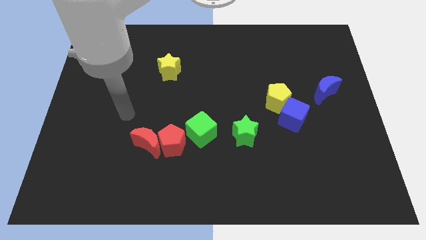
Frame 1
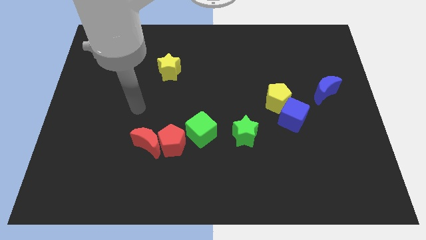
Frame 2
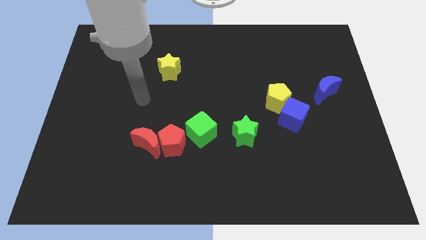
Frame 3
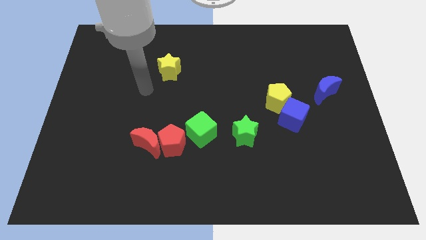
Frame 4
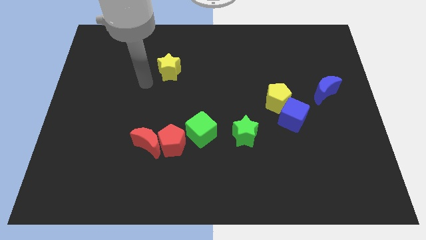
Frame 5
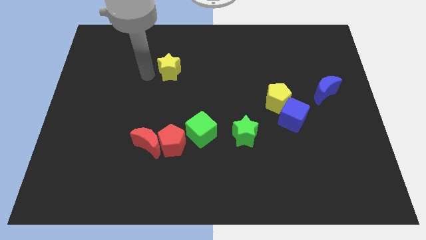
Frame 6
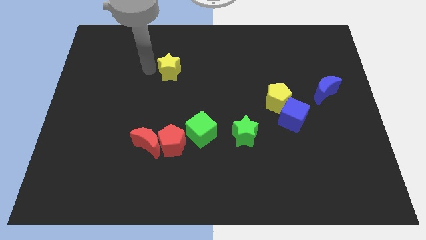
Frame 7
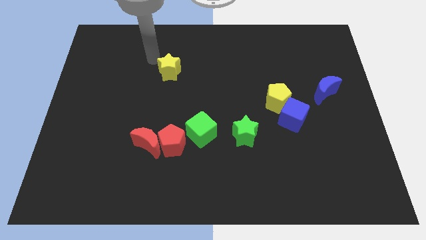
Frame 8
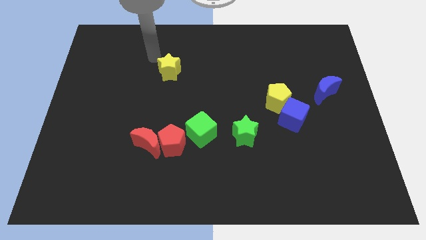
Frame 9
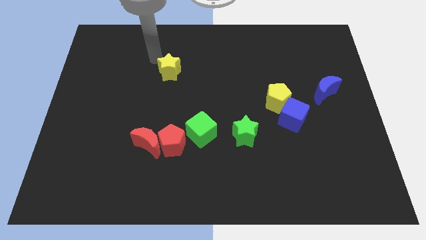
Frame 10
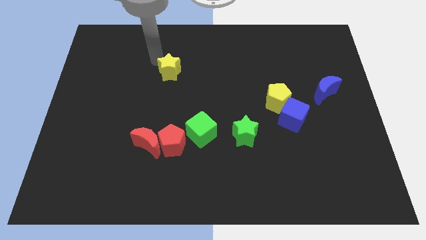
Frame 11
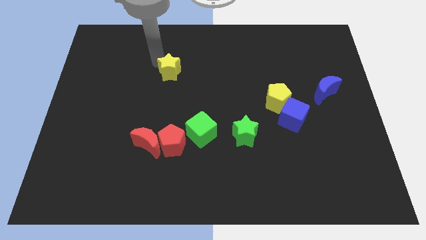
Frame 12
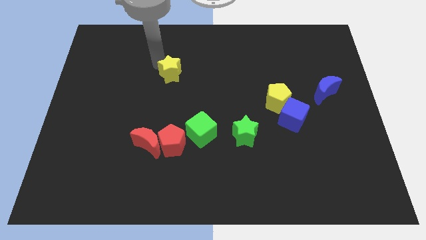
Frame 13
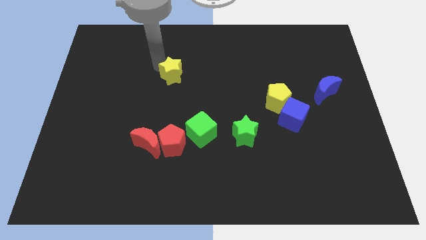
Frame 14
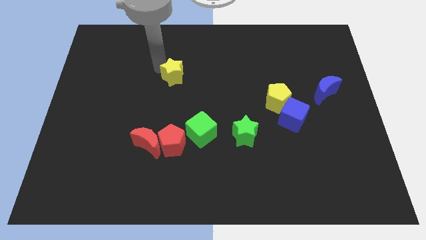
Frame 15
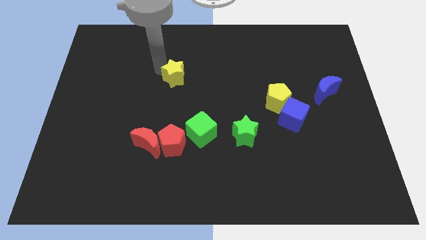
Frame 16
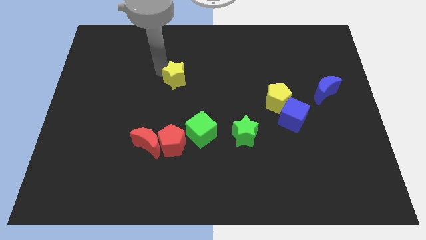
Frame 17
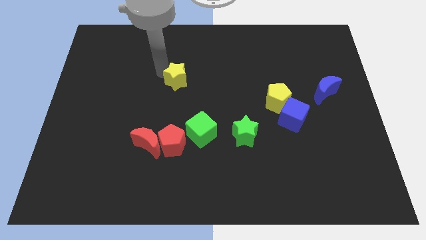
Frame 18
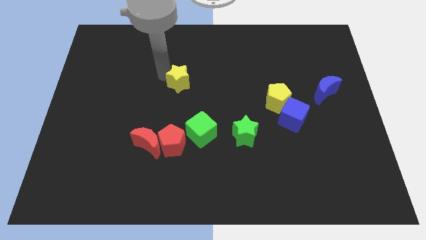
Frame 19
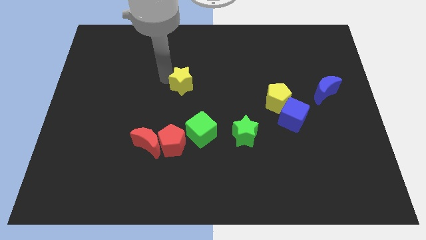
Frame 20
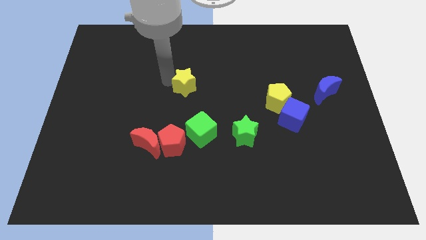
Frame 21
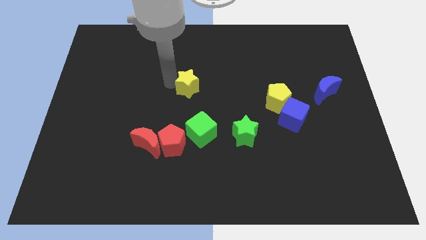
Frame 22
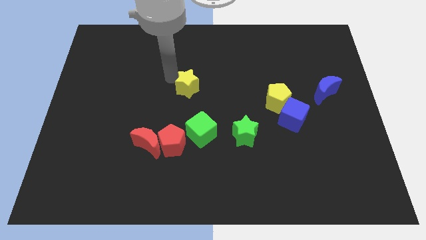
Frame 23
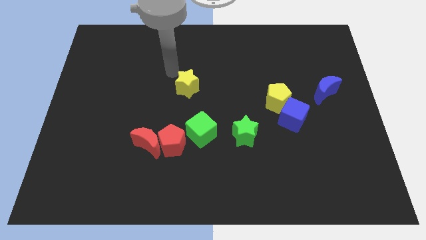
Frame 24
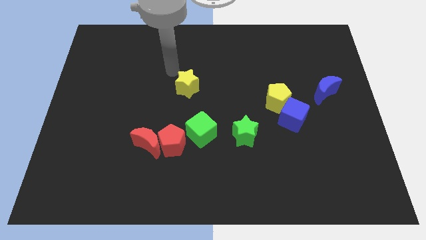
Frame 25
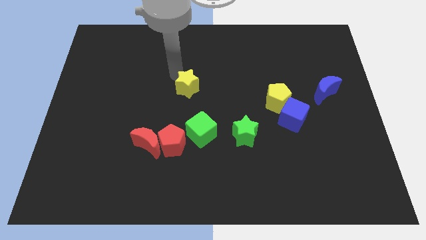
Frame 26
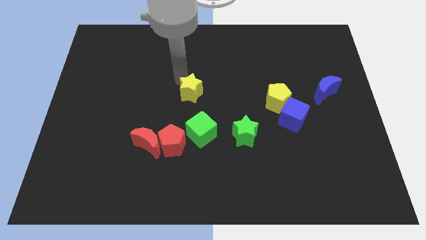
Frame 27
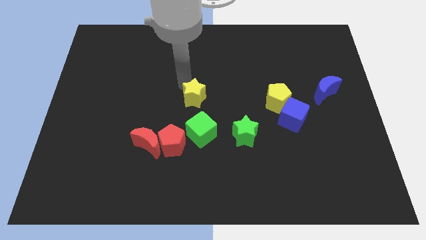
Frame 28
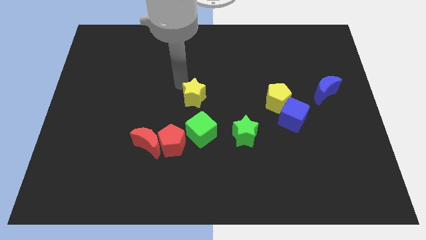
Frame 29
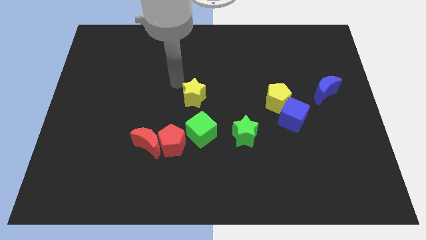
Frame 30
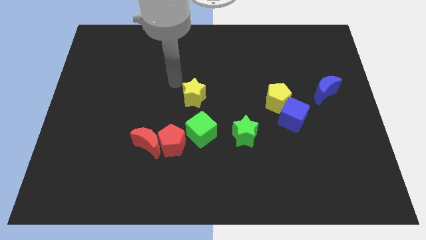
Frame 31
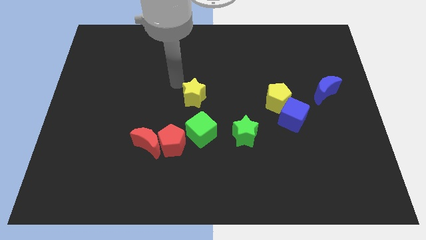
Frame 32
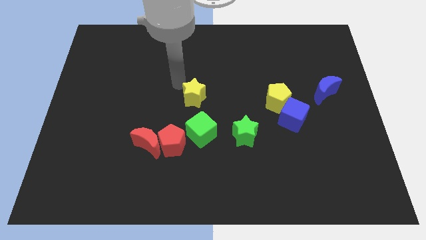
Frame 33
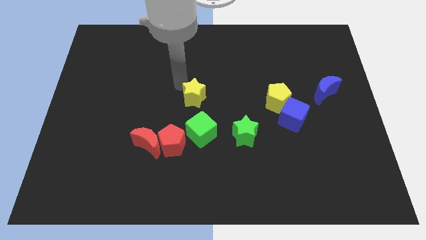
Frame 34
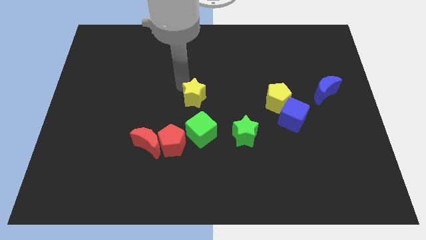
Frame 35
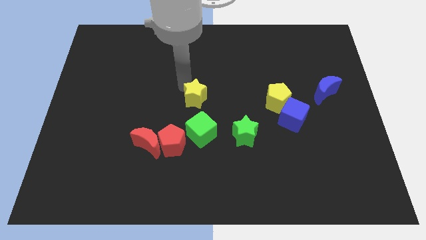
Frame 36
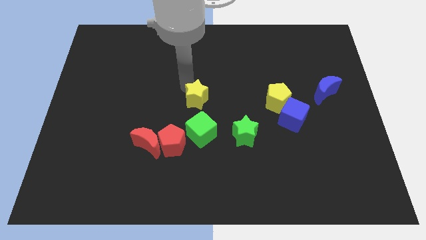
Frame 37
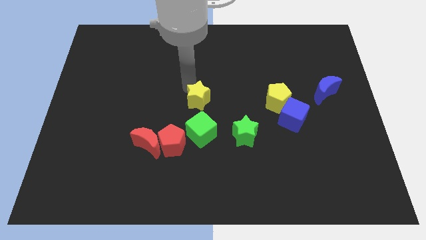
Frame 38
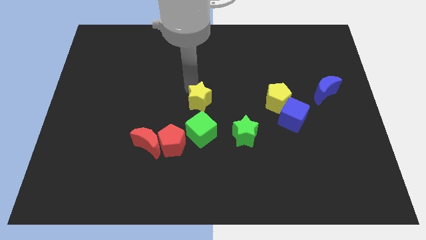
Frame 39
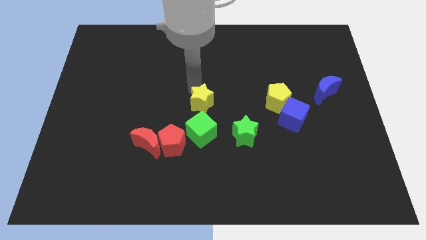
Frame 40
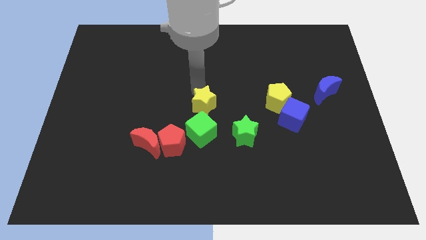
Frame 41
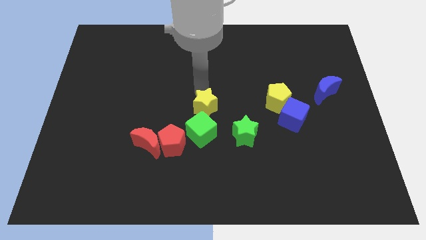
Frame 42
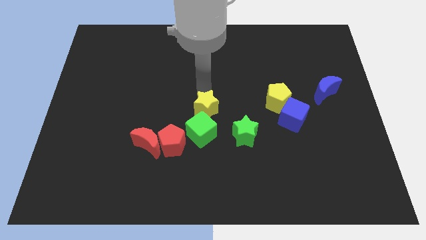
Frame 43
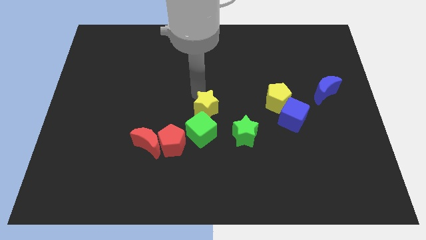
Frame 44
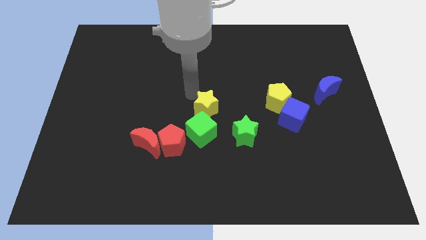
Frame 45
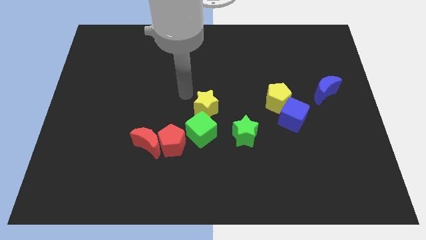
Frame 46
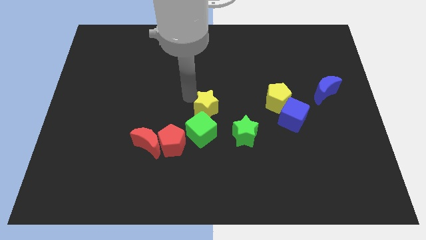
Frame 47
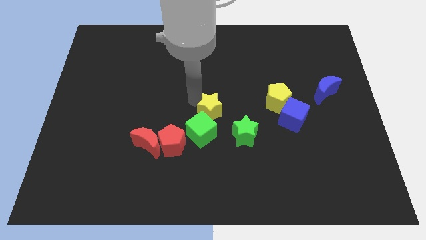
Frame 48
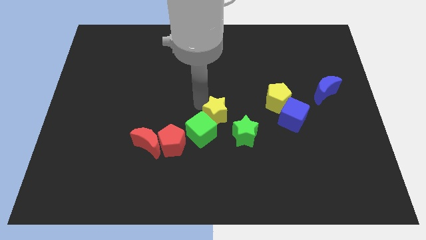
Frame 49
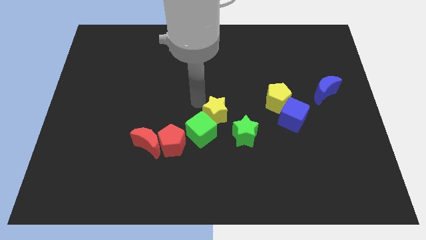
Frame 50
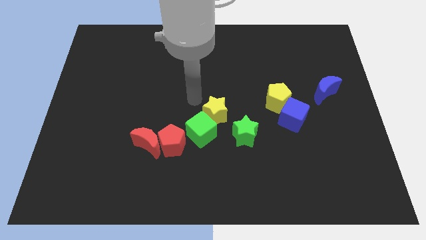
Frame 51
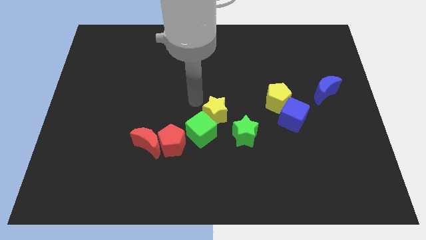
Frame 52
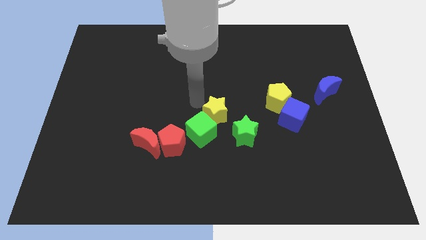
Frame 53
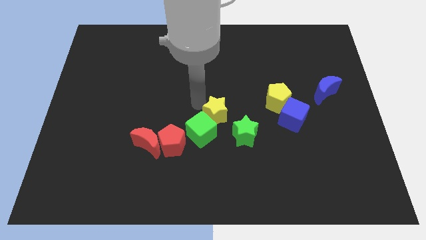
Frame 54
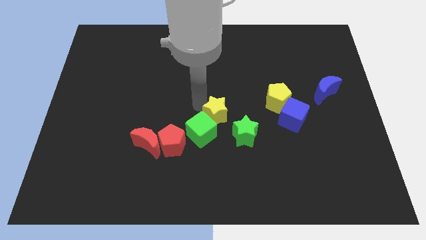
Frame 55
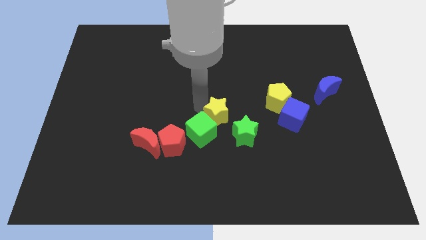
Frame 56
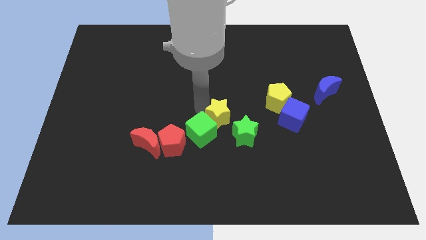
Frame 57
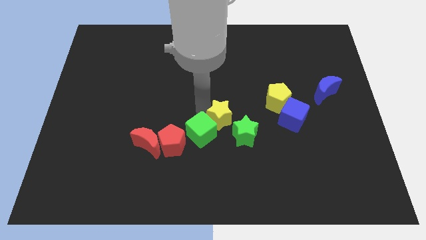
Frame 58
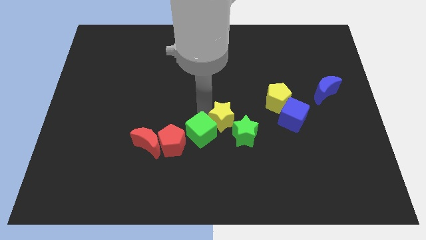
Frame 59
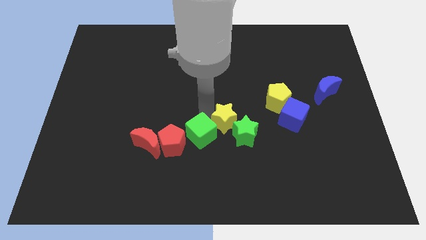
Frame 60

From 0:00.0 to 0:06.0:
move the yellow star next to the green star

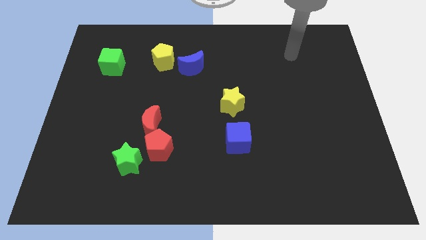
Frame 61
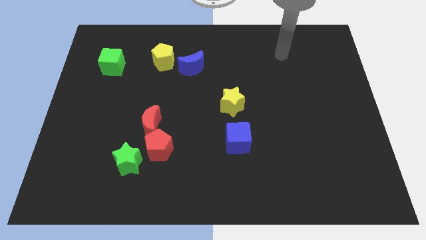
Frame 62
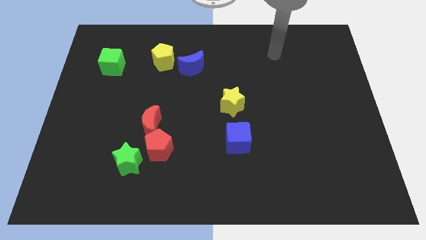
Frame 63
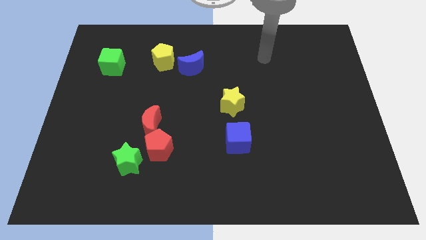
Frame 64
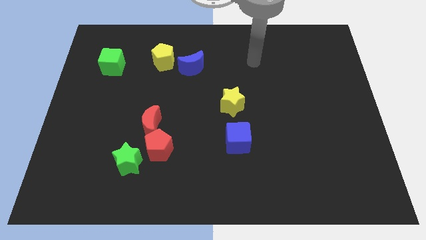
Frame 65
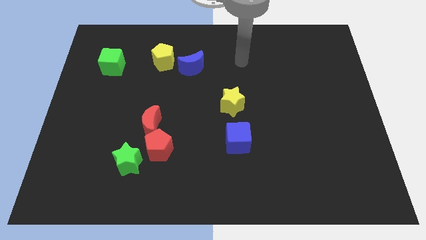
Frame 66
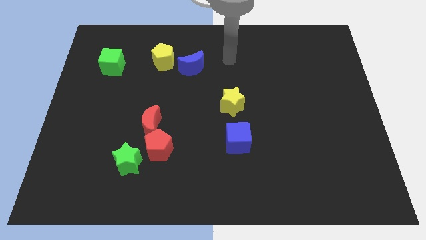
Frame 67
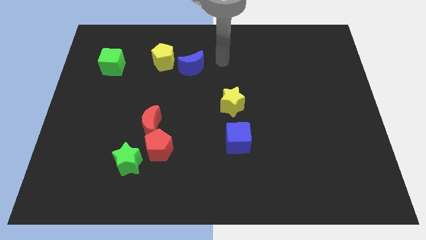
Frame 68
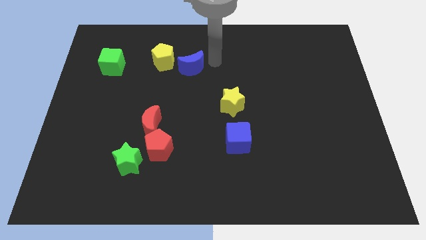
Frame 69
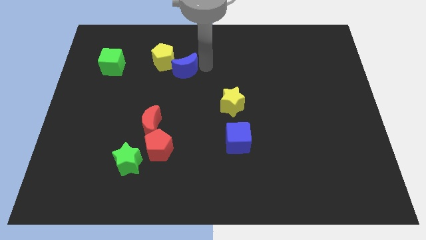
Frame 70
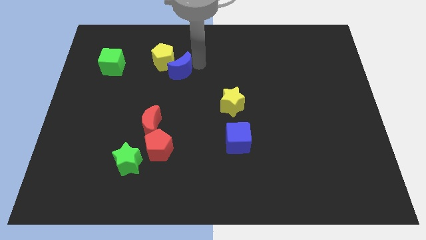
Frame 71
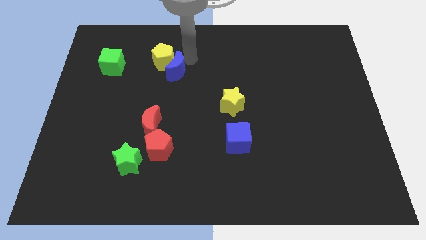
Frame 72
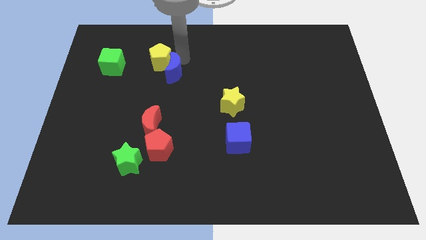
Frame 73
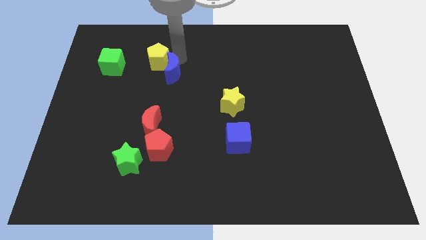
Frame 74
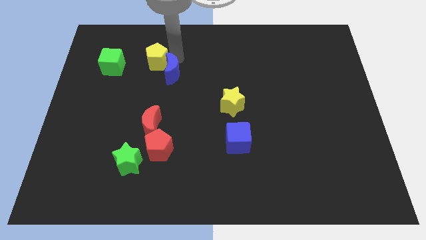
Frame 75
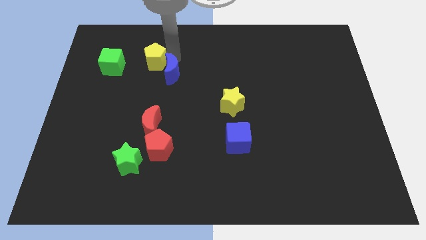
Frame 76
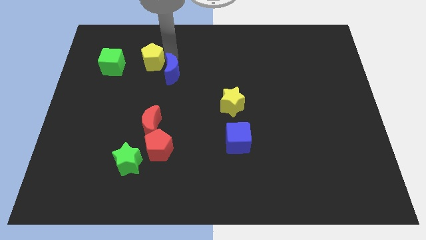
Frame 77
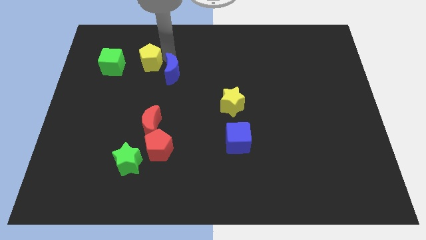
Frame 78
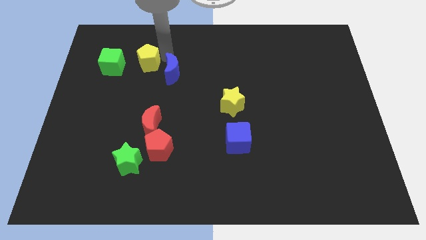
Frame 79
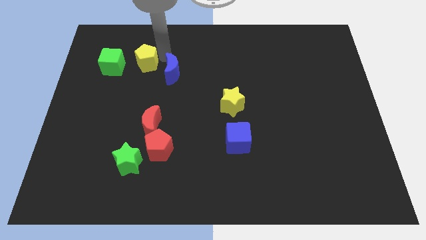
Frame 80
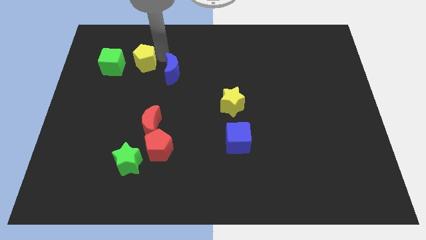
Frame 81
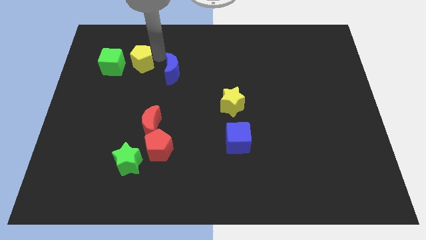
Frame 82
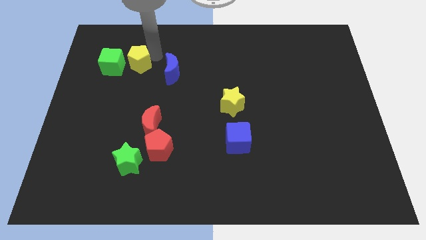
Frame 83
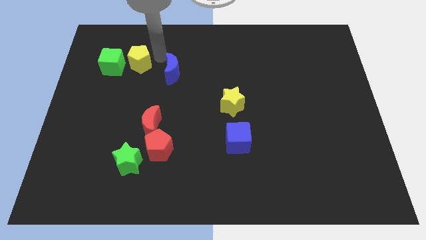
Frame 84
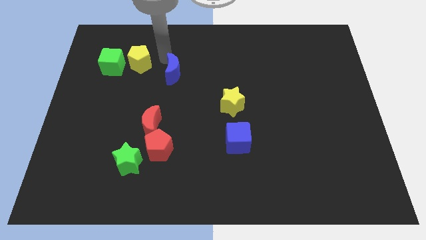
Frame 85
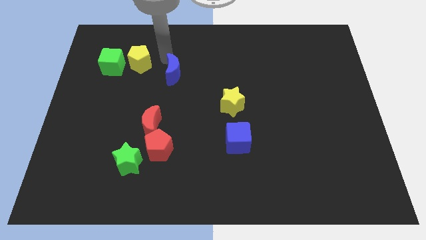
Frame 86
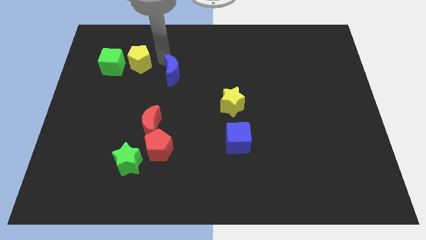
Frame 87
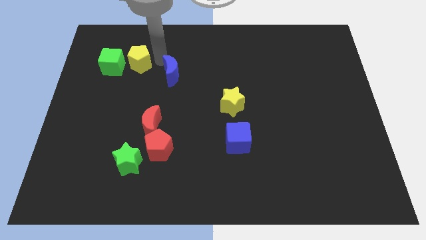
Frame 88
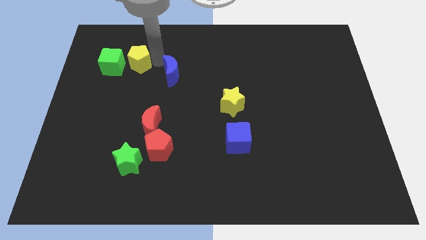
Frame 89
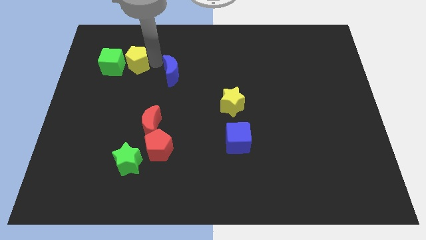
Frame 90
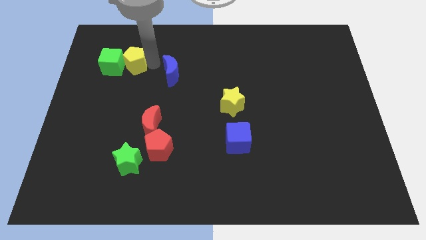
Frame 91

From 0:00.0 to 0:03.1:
move the yellow pentagon next to the green cube
